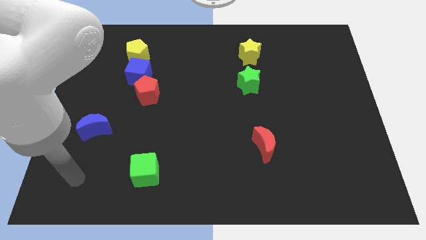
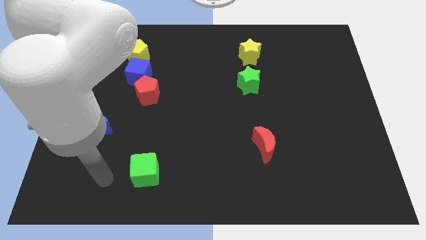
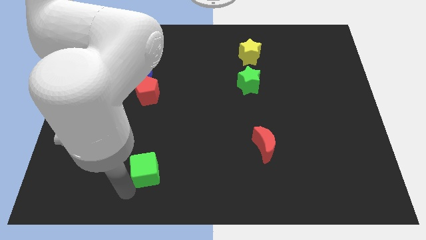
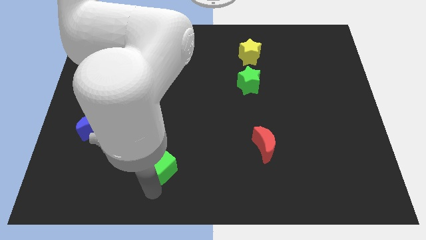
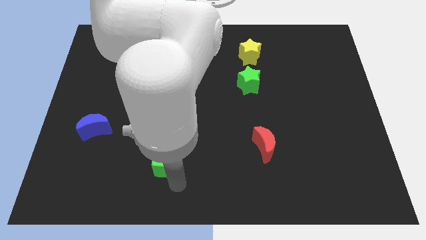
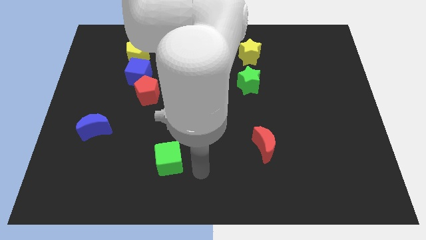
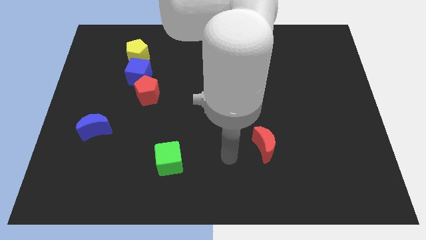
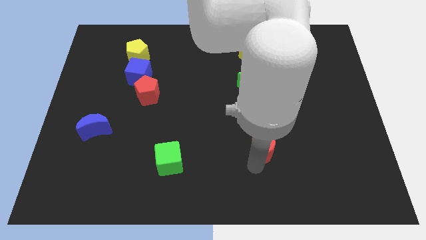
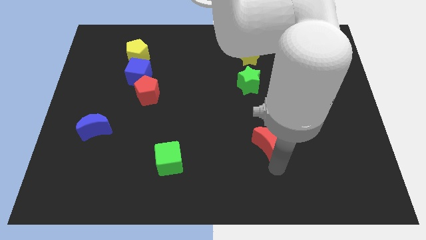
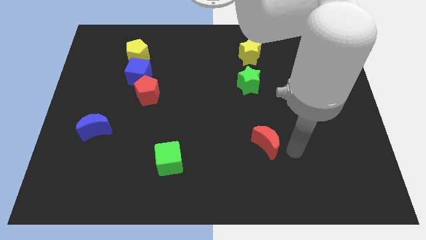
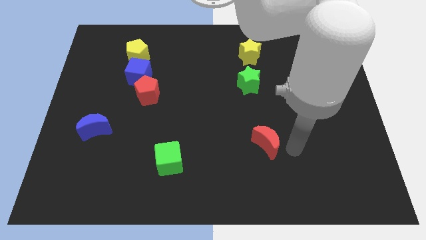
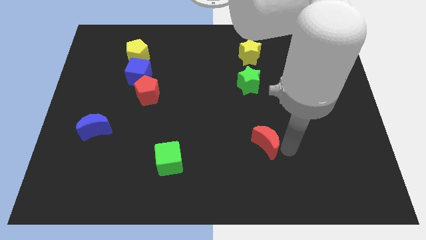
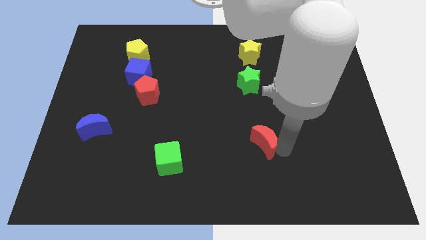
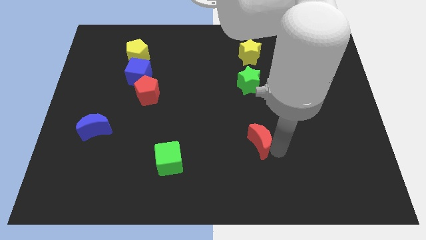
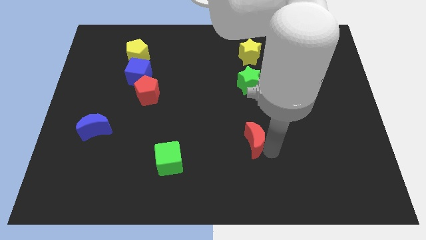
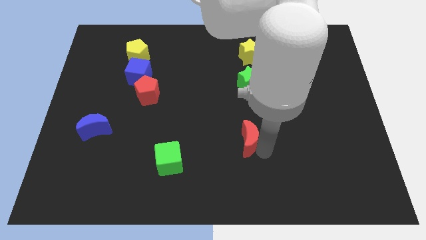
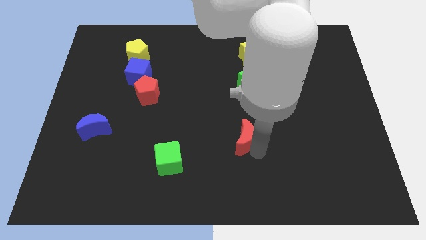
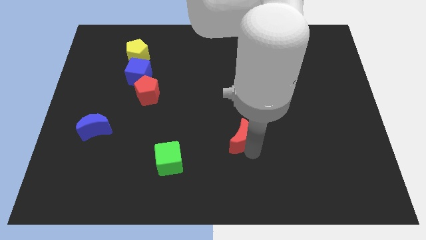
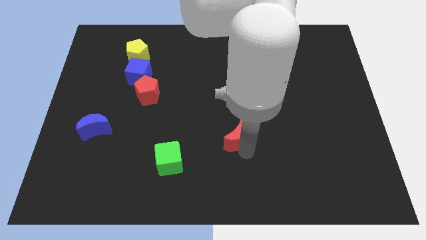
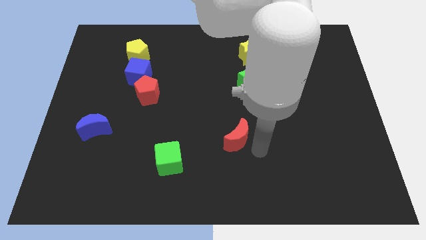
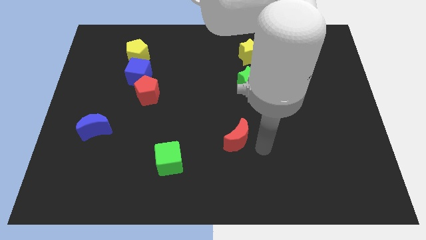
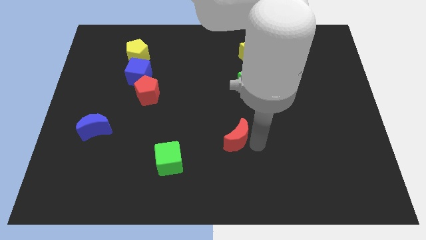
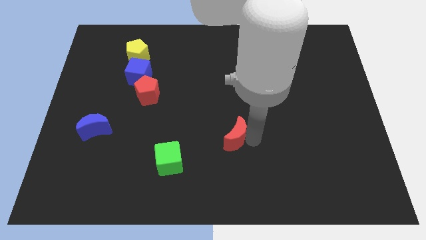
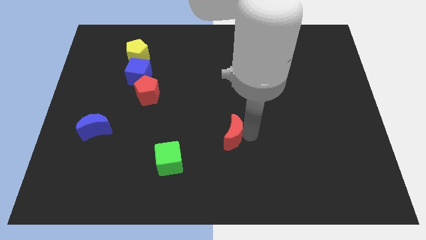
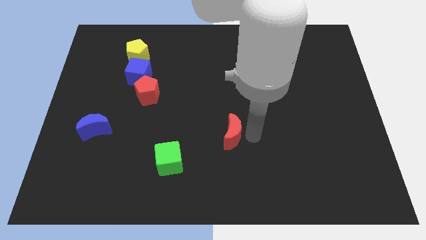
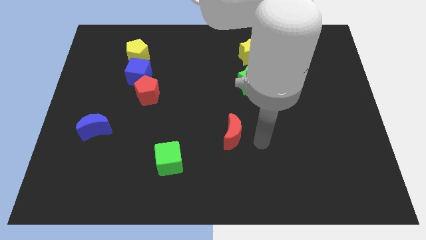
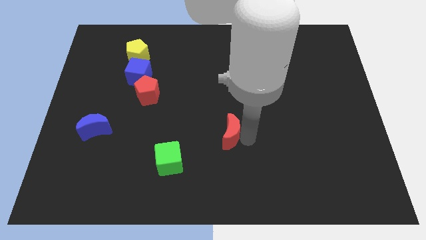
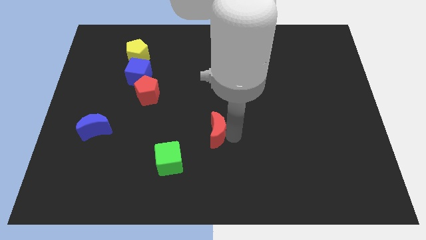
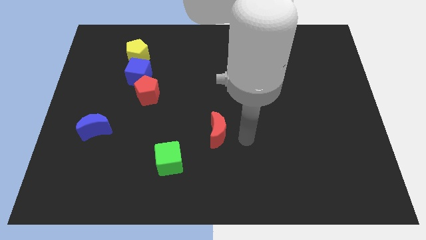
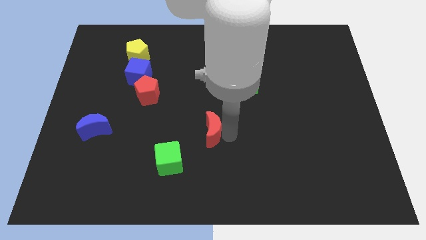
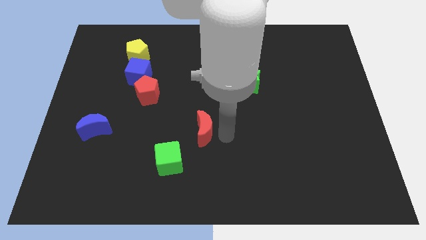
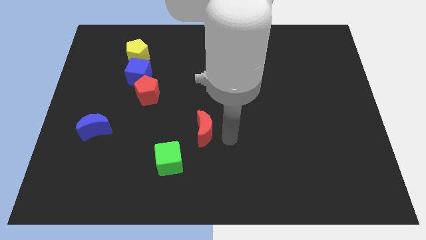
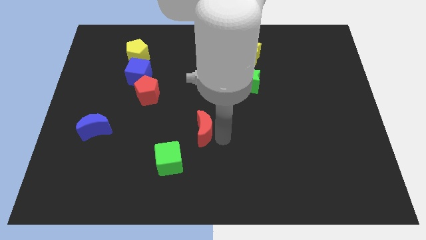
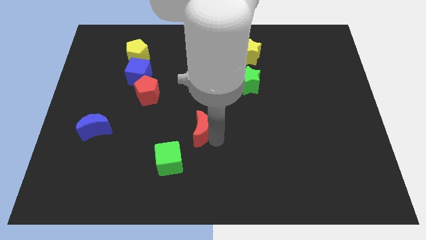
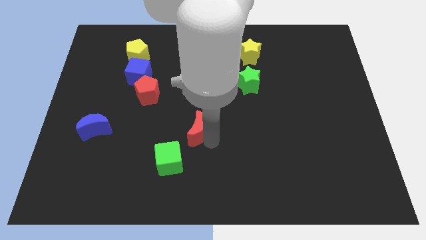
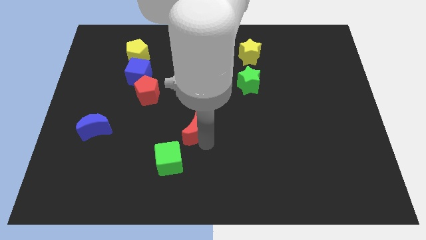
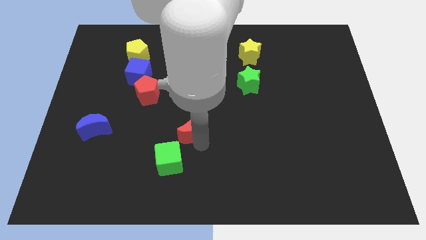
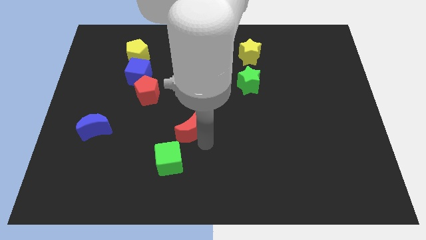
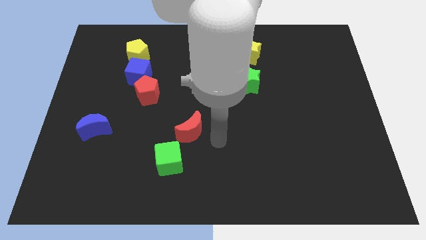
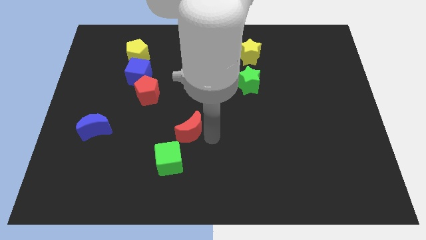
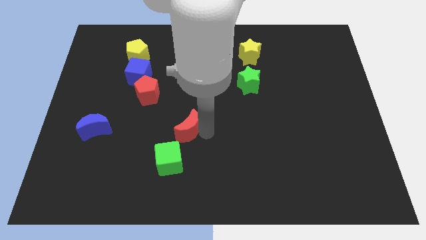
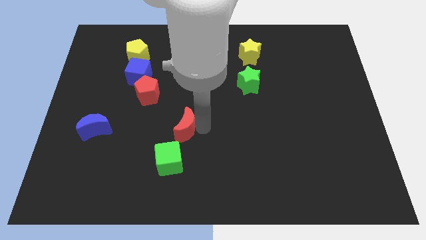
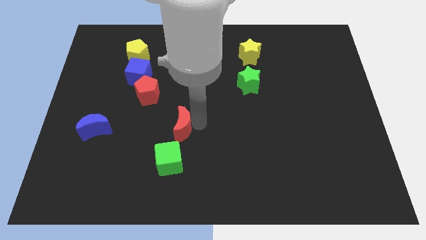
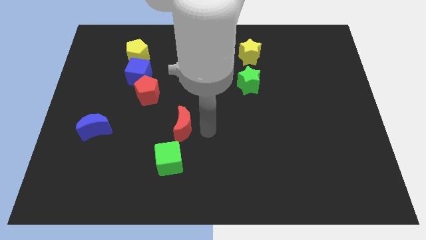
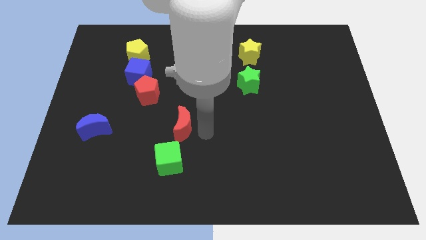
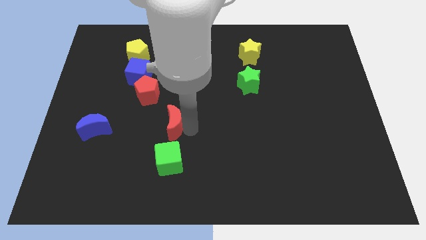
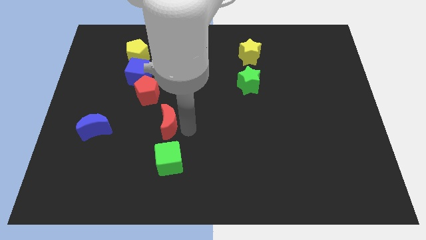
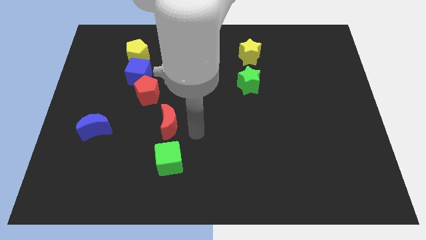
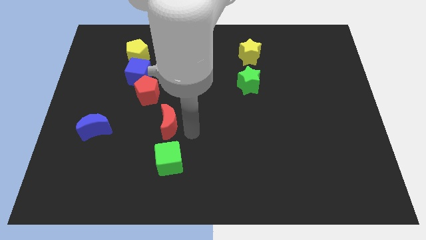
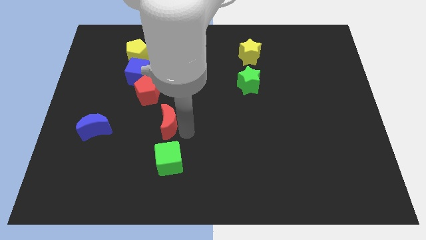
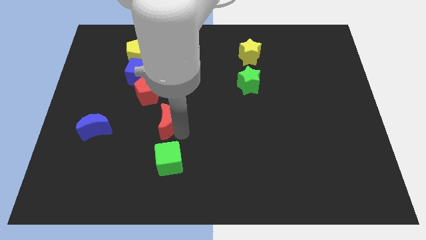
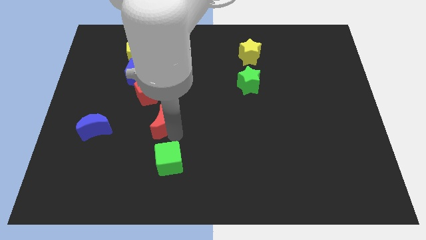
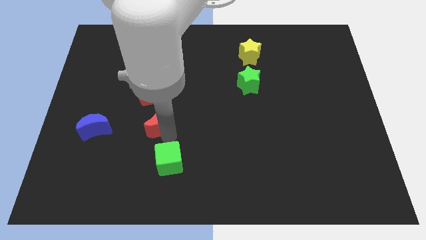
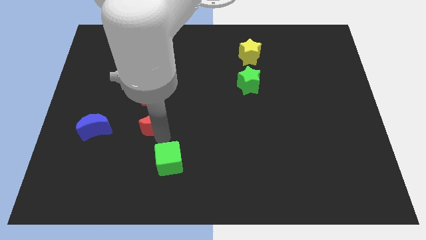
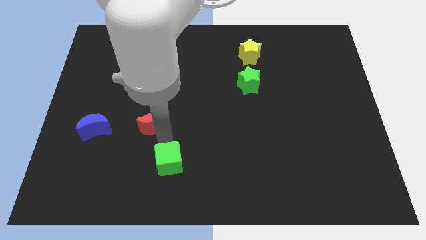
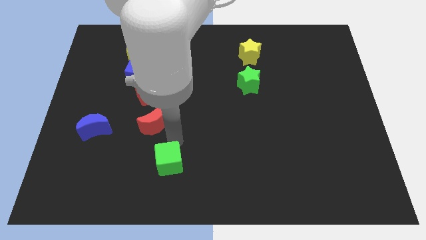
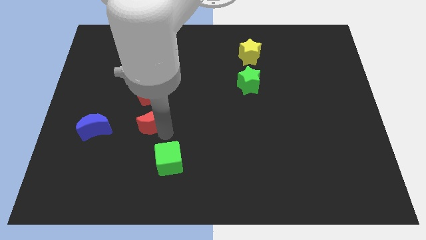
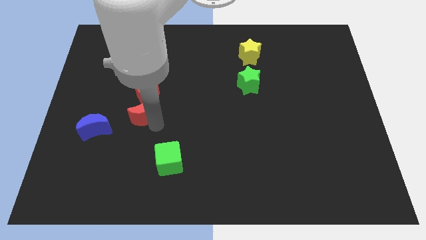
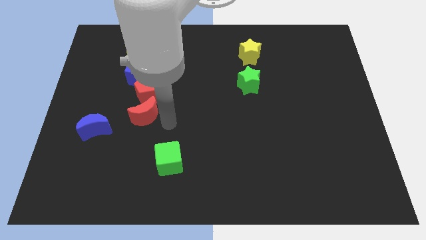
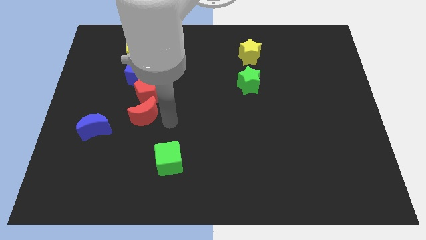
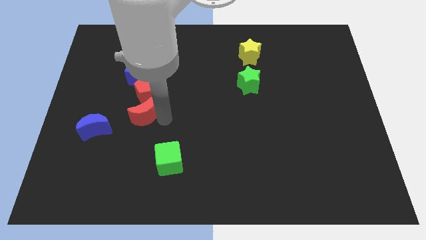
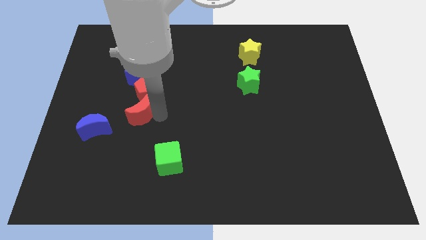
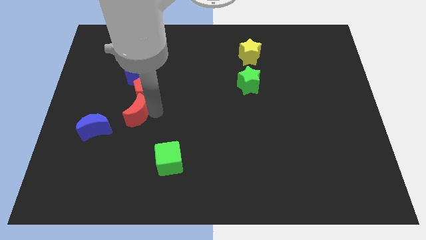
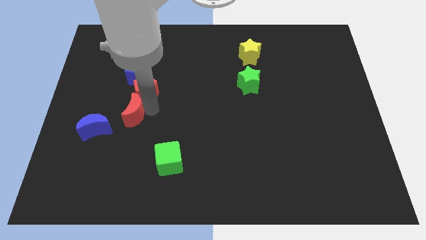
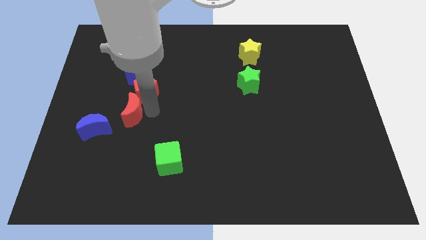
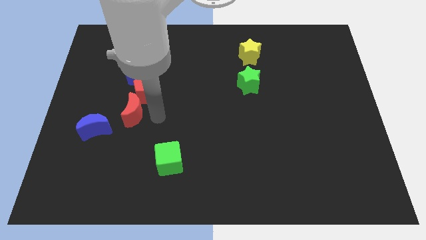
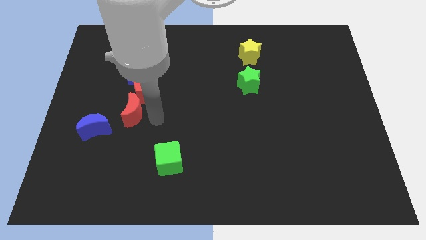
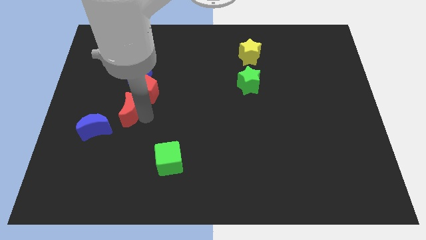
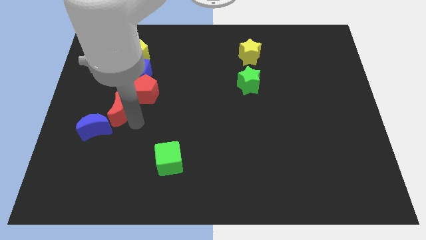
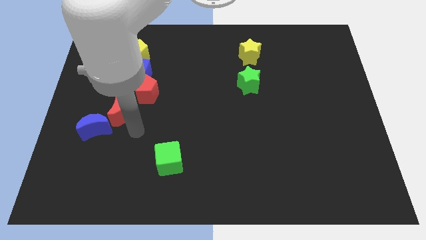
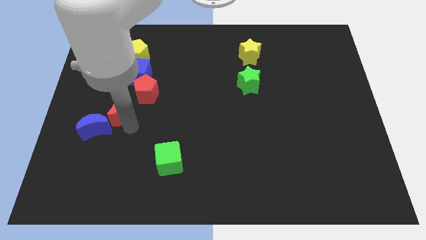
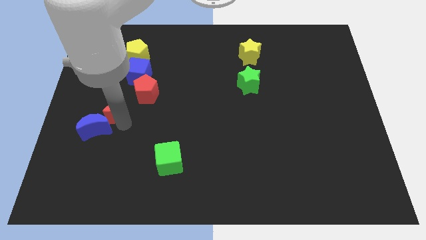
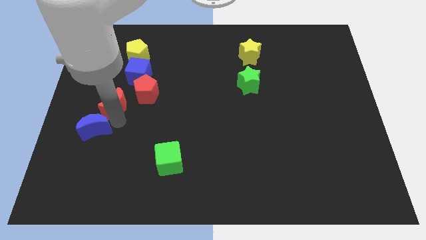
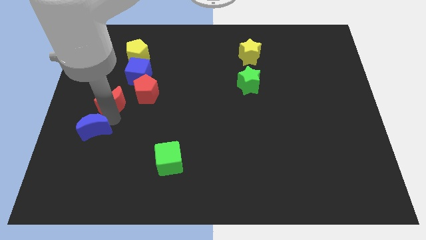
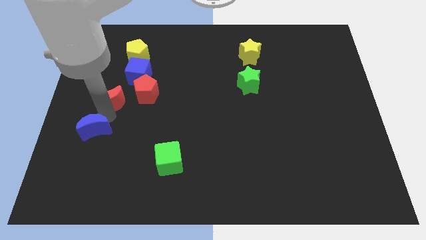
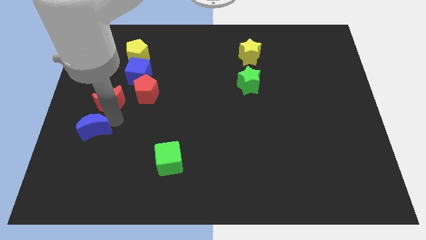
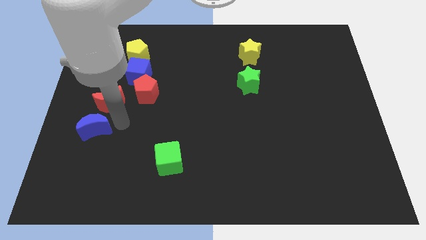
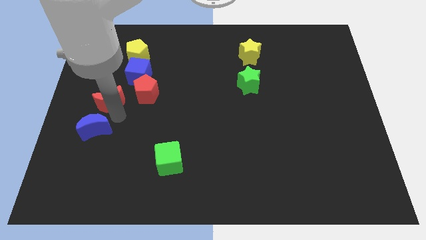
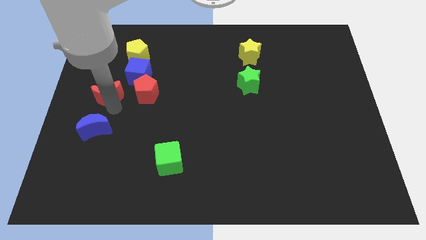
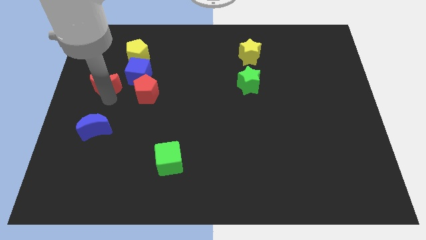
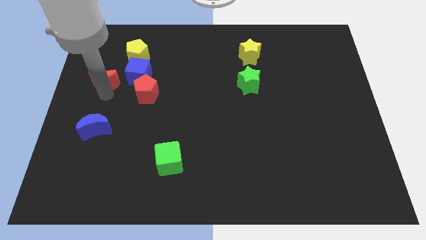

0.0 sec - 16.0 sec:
put the red moon diagonally down and to the left of the yellow pentagon
